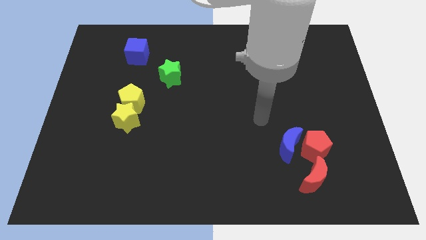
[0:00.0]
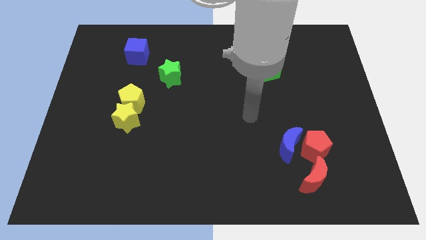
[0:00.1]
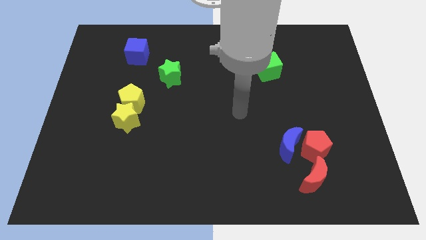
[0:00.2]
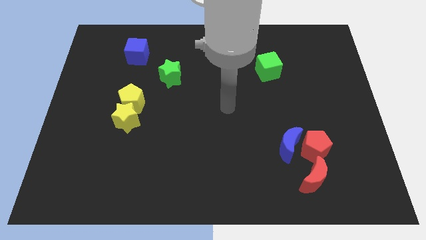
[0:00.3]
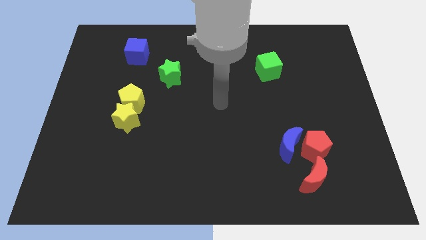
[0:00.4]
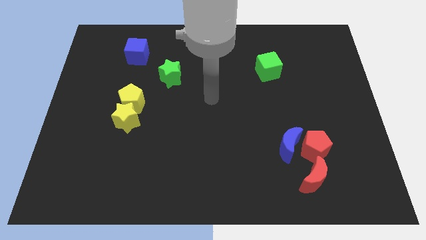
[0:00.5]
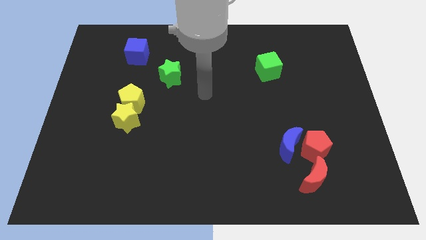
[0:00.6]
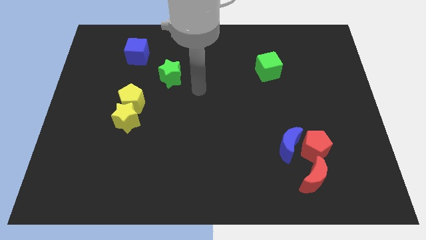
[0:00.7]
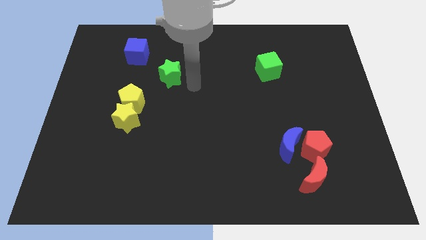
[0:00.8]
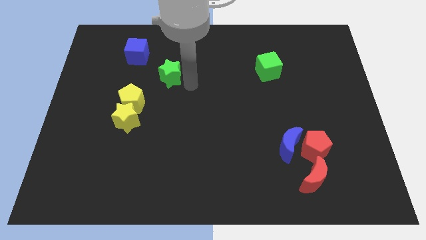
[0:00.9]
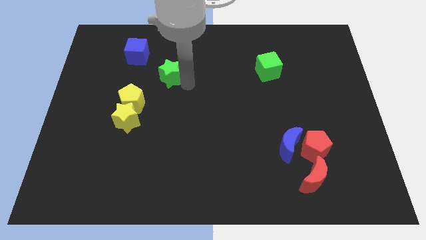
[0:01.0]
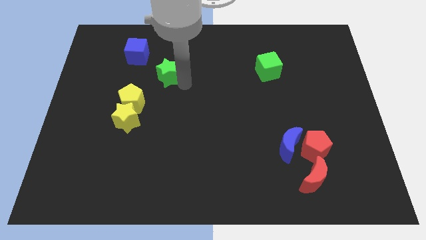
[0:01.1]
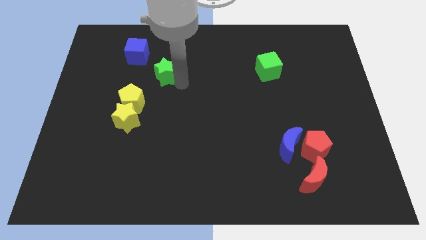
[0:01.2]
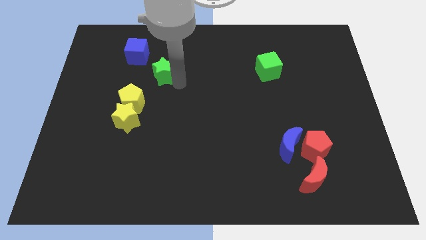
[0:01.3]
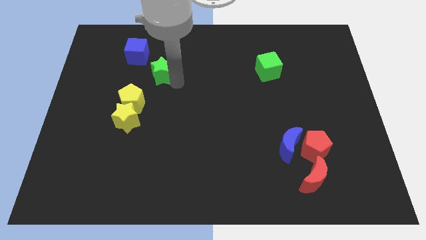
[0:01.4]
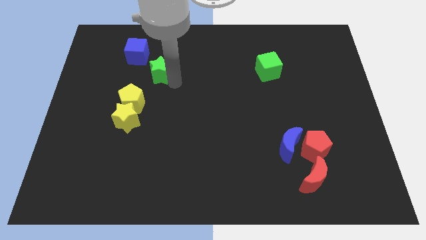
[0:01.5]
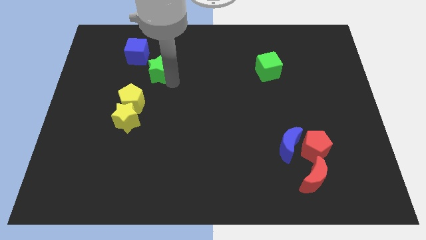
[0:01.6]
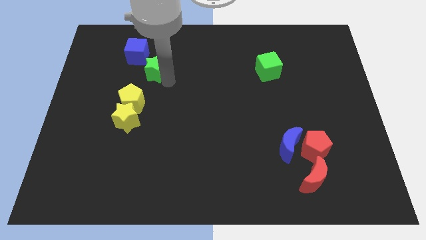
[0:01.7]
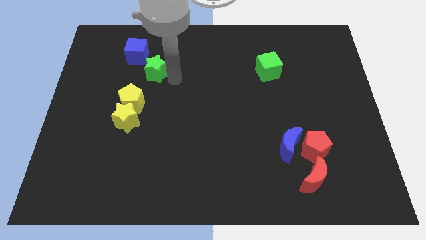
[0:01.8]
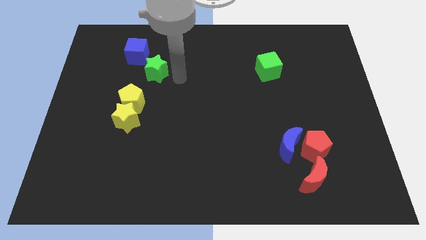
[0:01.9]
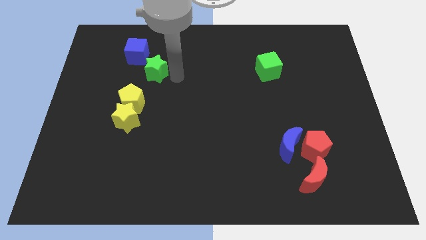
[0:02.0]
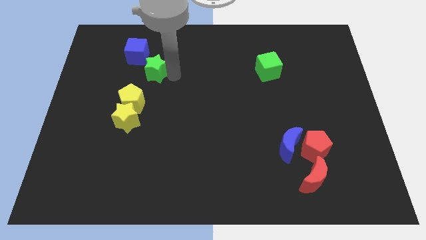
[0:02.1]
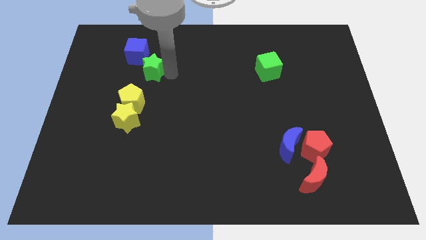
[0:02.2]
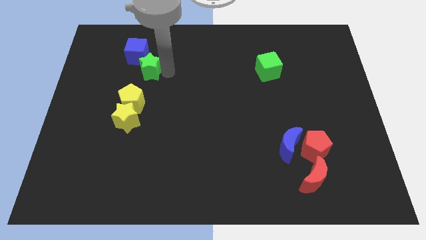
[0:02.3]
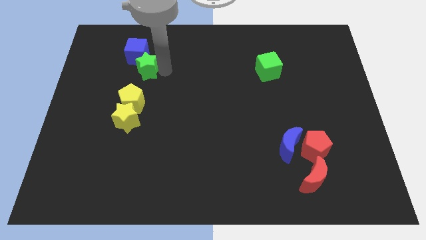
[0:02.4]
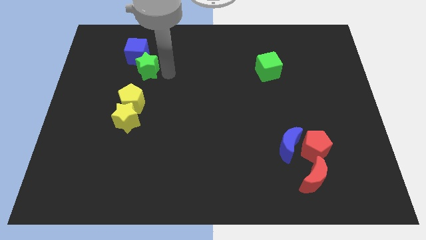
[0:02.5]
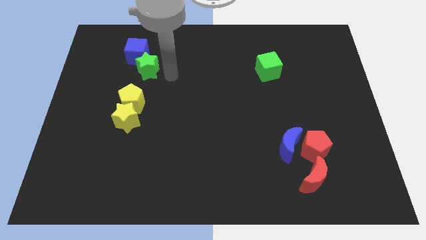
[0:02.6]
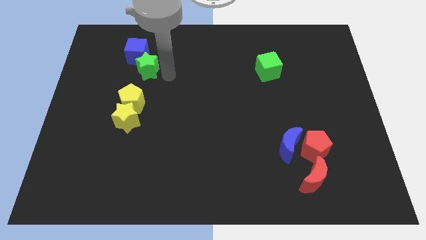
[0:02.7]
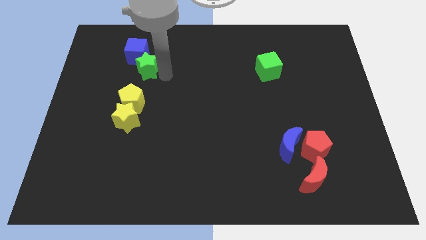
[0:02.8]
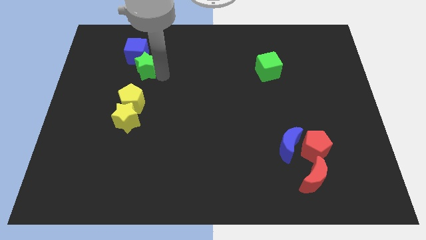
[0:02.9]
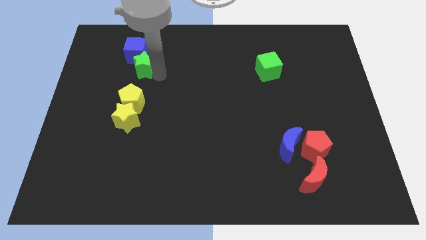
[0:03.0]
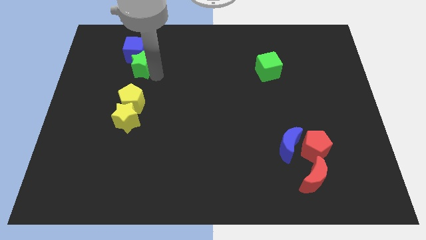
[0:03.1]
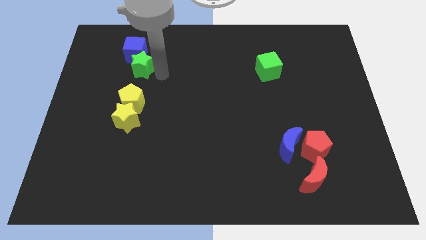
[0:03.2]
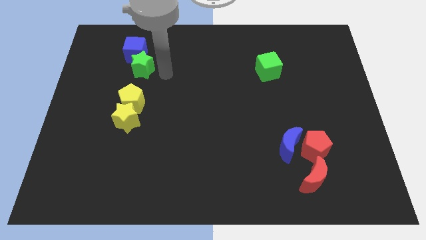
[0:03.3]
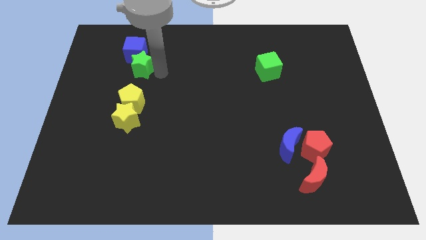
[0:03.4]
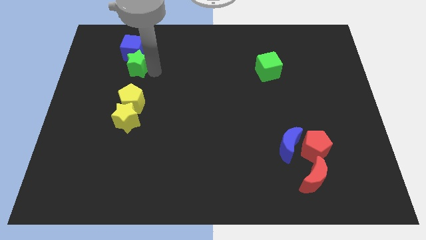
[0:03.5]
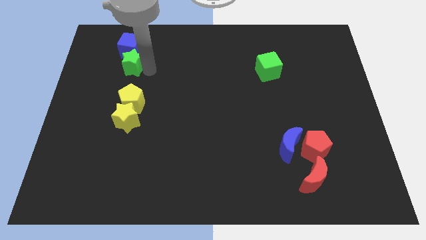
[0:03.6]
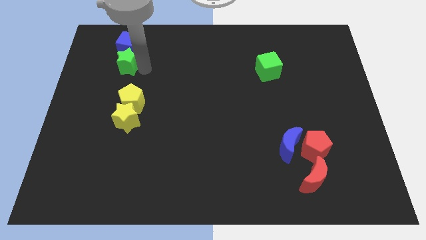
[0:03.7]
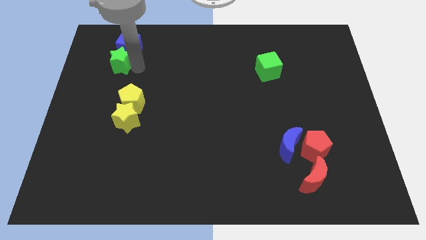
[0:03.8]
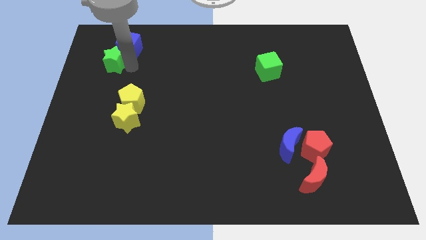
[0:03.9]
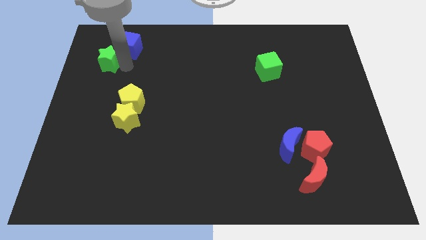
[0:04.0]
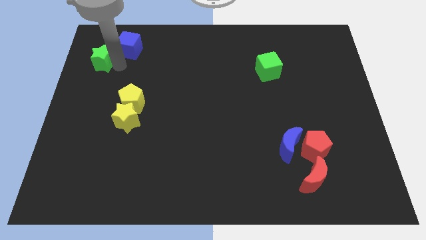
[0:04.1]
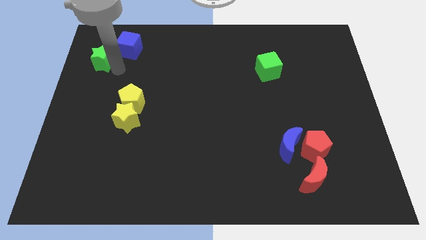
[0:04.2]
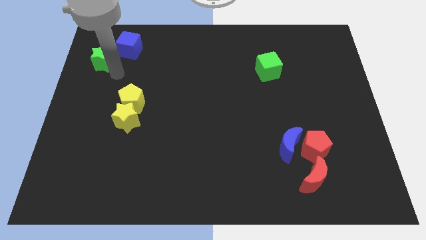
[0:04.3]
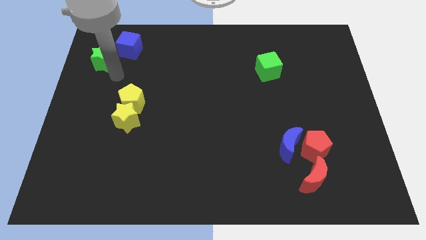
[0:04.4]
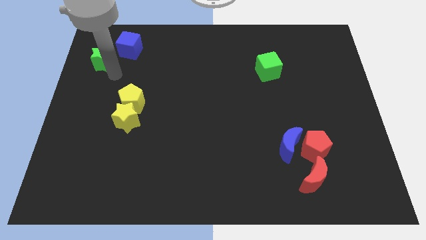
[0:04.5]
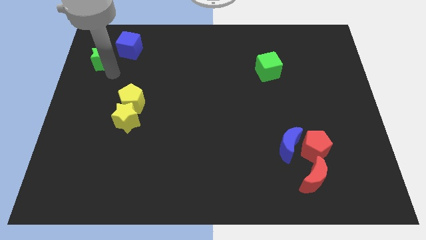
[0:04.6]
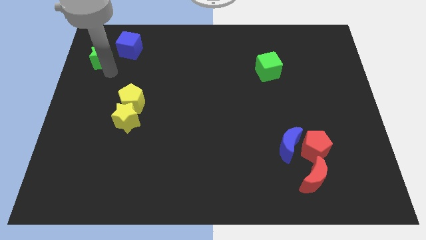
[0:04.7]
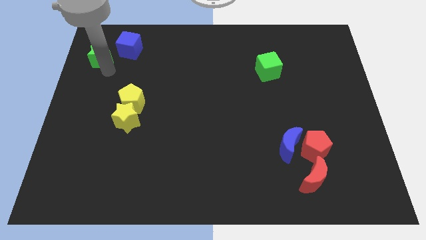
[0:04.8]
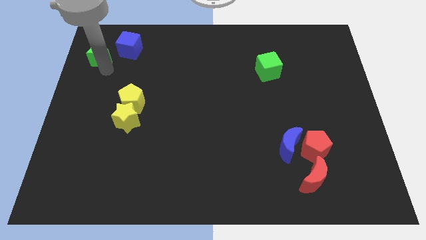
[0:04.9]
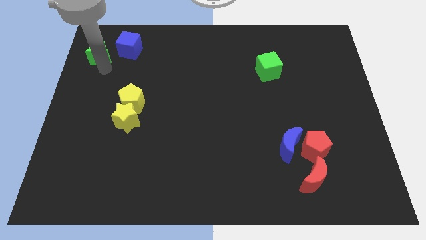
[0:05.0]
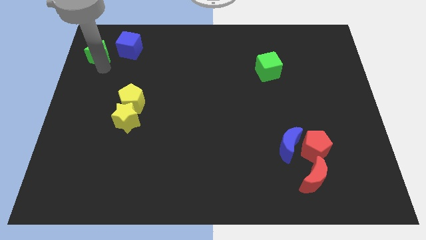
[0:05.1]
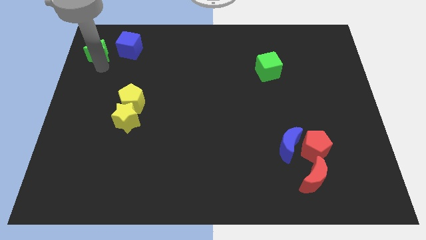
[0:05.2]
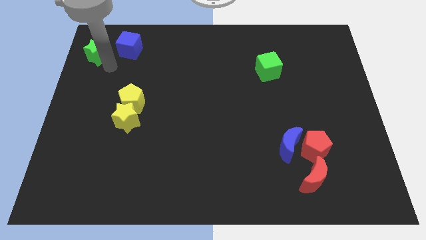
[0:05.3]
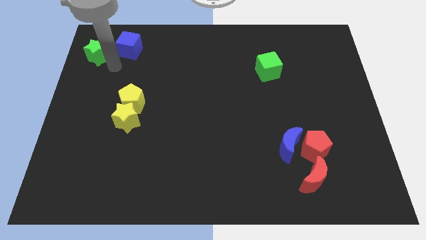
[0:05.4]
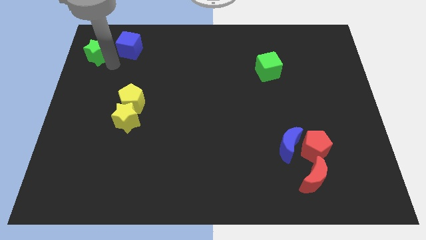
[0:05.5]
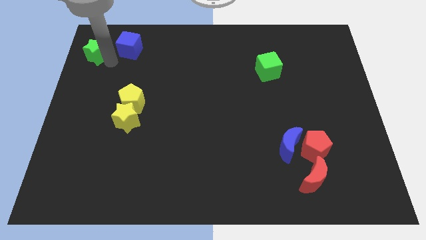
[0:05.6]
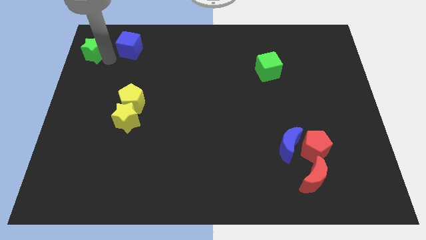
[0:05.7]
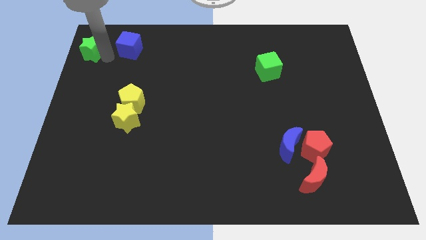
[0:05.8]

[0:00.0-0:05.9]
move the green star to the top left

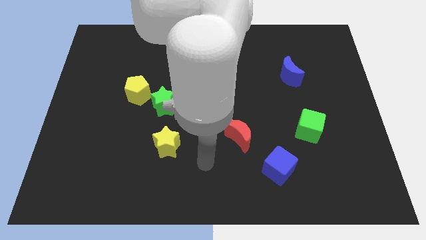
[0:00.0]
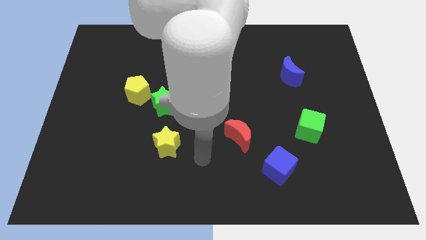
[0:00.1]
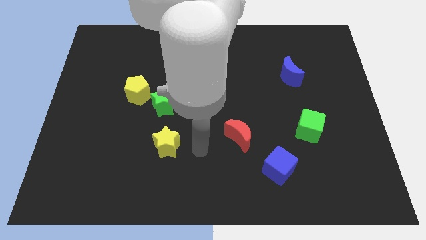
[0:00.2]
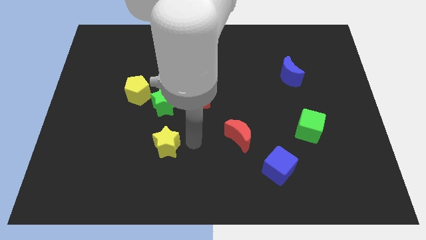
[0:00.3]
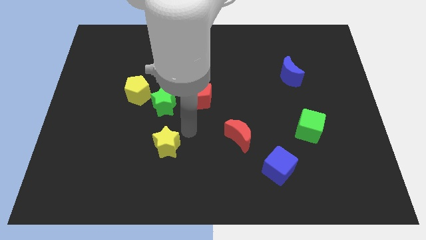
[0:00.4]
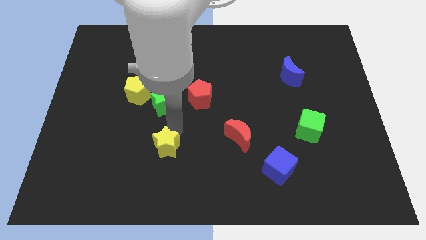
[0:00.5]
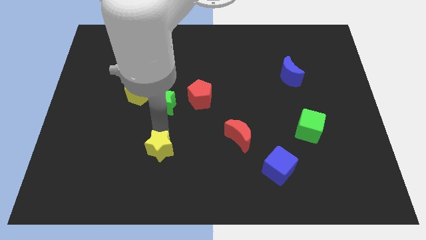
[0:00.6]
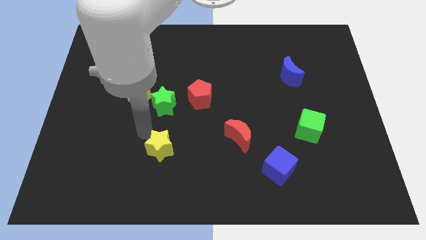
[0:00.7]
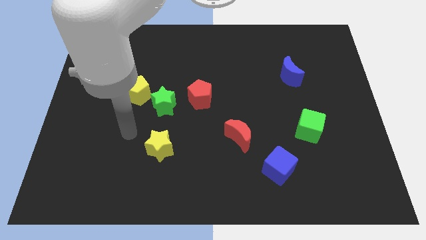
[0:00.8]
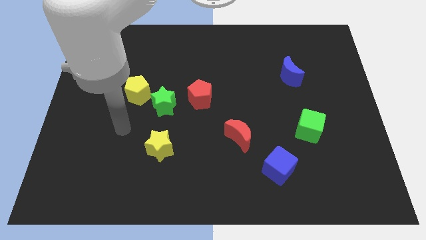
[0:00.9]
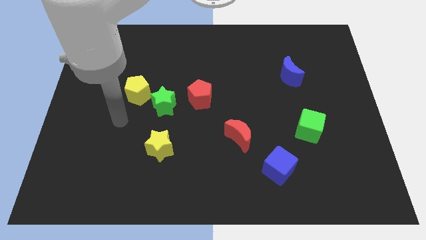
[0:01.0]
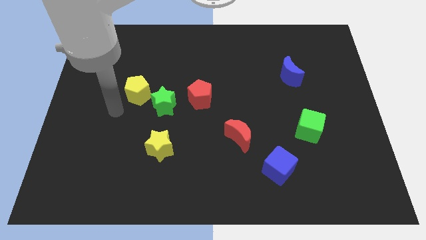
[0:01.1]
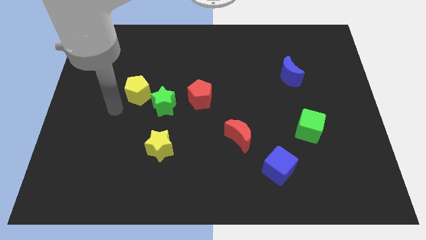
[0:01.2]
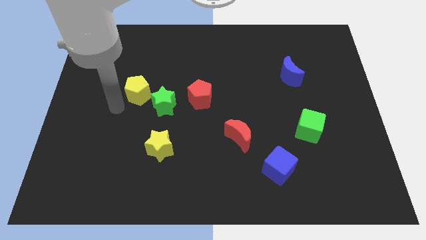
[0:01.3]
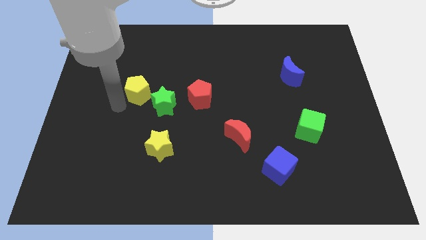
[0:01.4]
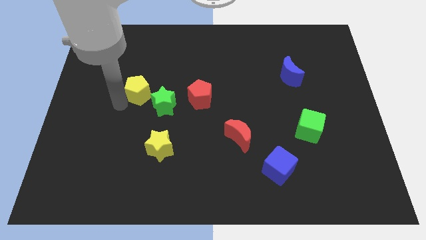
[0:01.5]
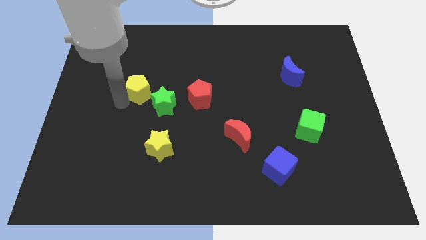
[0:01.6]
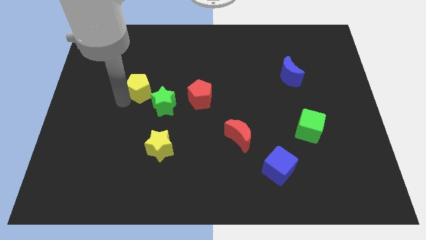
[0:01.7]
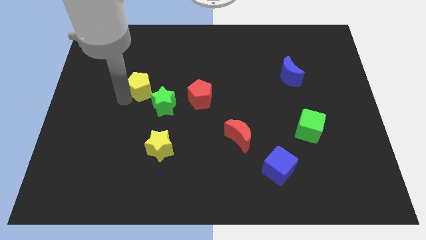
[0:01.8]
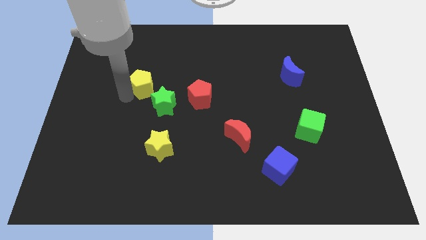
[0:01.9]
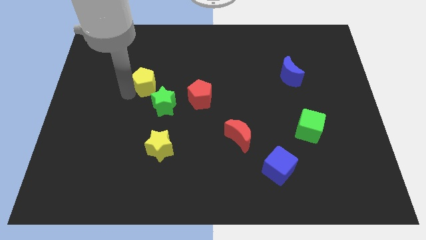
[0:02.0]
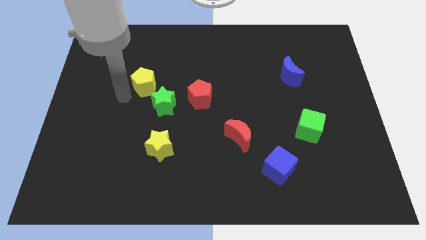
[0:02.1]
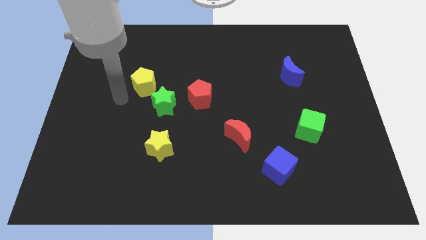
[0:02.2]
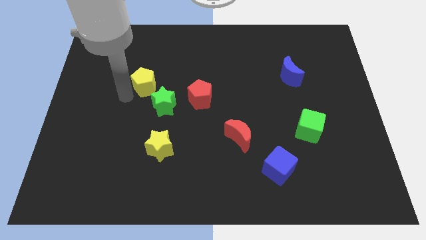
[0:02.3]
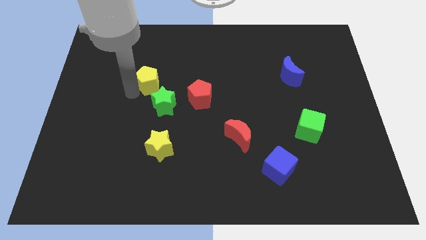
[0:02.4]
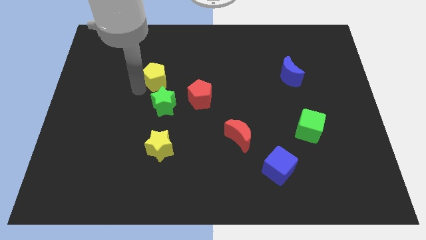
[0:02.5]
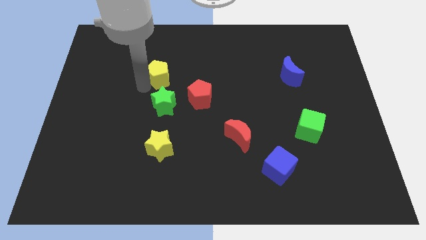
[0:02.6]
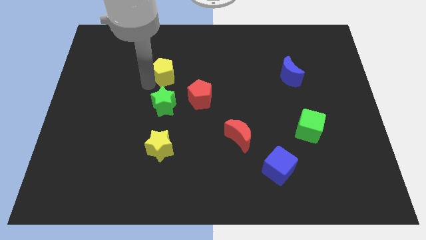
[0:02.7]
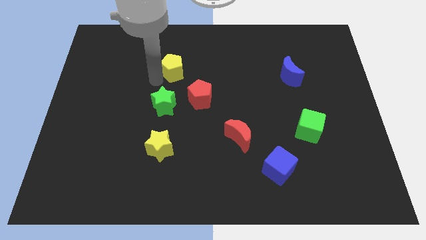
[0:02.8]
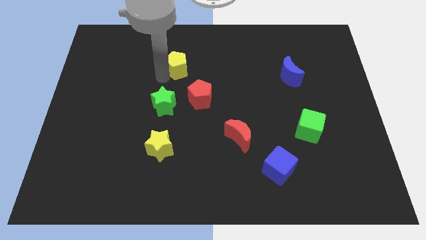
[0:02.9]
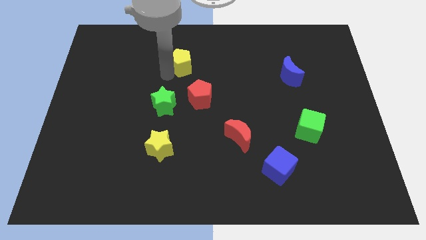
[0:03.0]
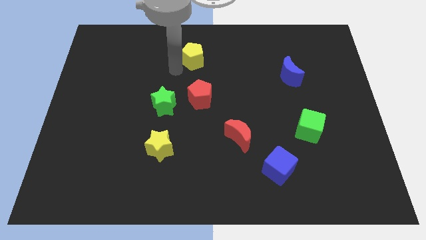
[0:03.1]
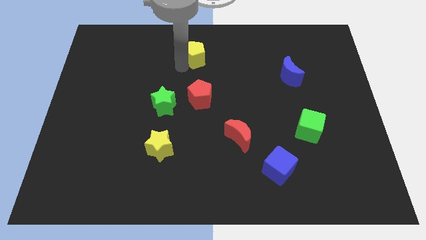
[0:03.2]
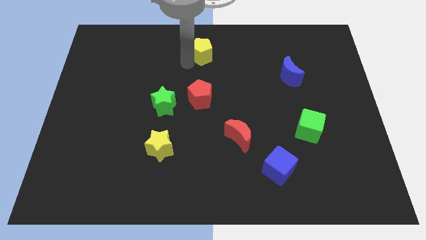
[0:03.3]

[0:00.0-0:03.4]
move the yellow pentagon to the top side
